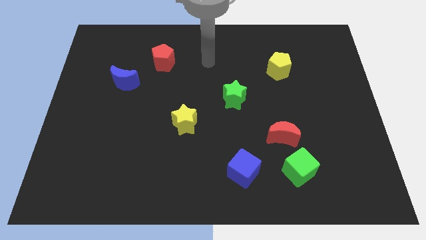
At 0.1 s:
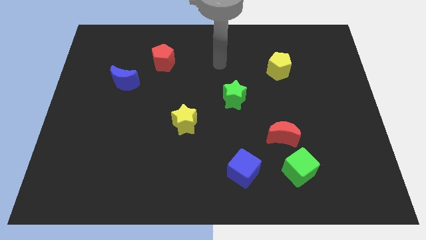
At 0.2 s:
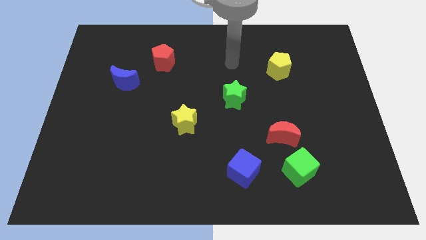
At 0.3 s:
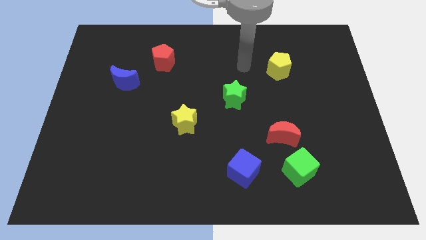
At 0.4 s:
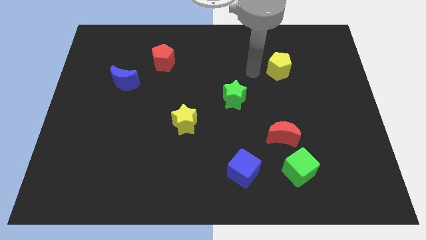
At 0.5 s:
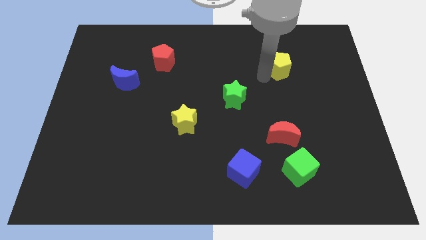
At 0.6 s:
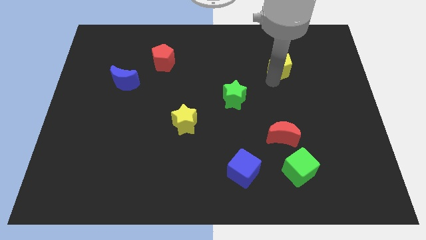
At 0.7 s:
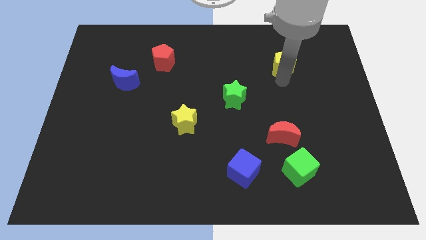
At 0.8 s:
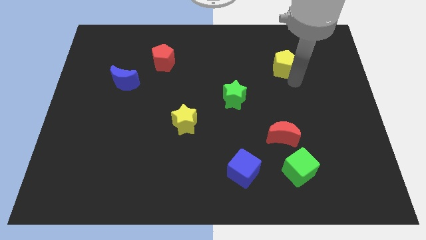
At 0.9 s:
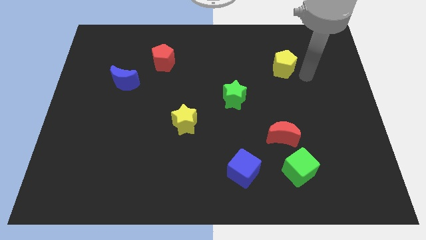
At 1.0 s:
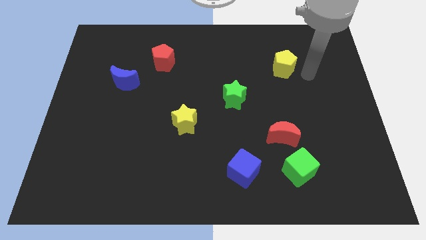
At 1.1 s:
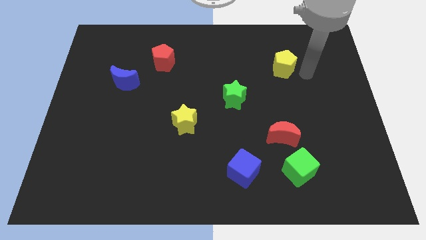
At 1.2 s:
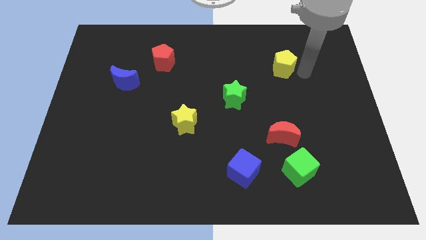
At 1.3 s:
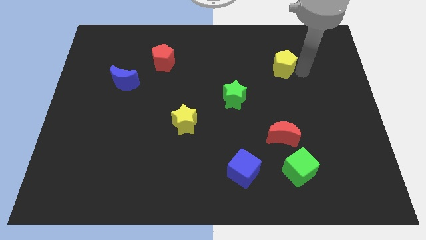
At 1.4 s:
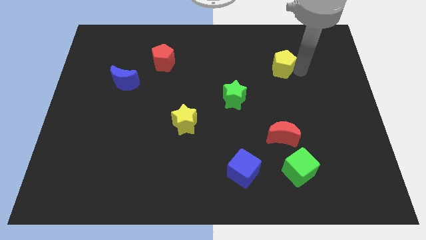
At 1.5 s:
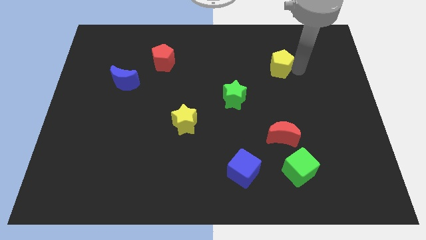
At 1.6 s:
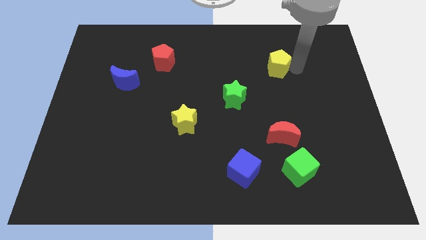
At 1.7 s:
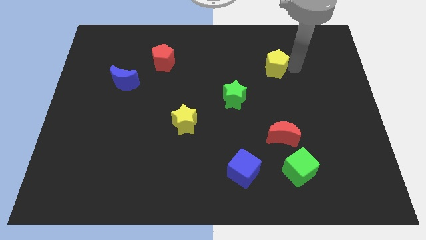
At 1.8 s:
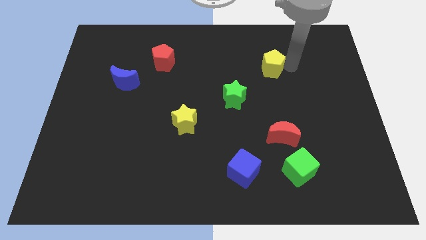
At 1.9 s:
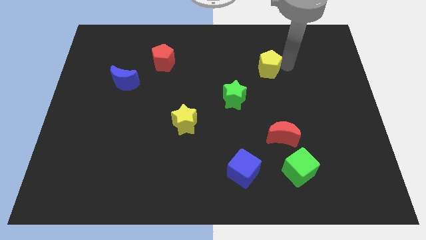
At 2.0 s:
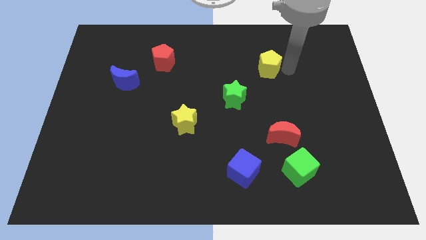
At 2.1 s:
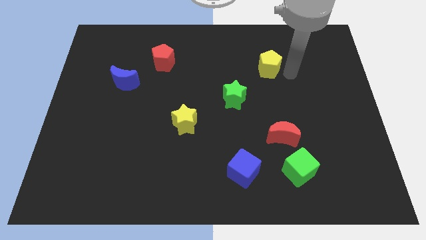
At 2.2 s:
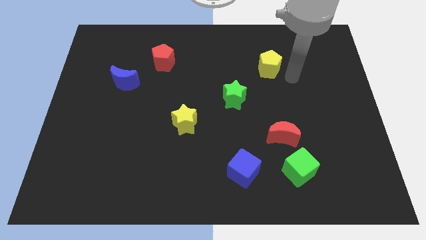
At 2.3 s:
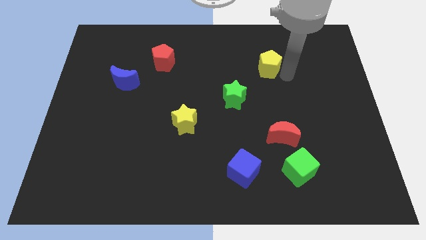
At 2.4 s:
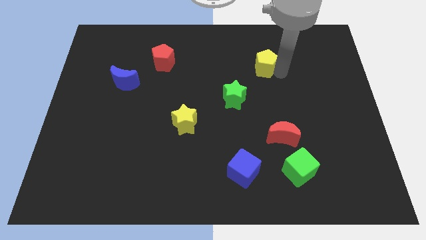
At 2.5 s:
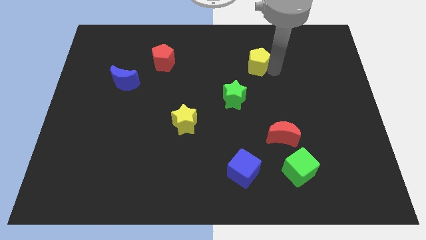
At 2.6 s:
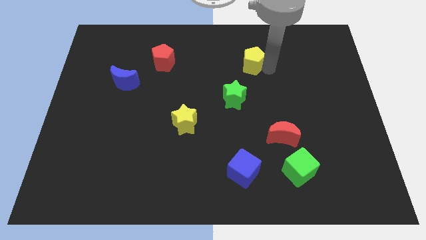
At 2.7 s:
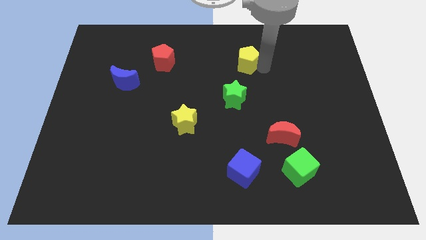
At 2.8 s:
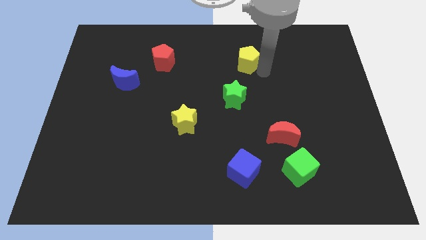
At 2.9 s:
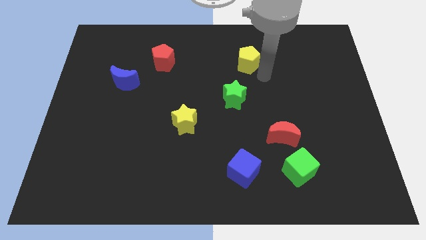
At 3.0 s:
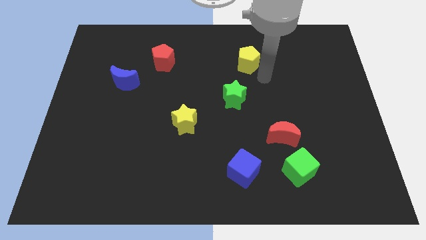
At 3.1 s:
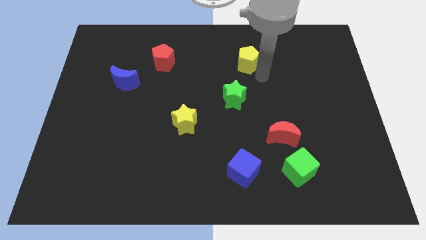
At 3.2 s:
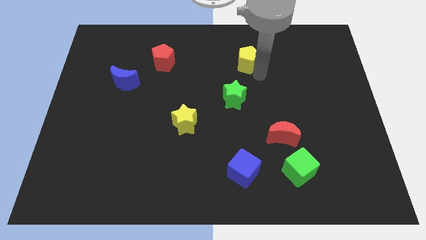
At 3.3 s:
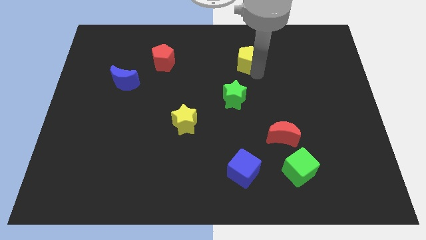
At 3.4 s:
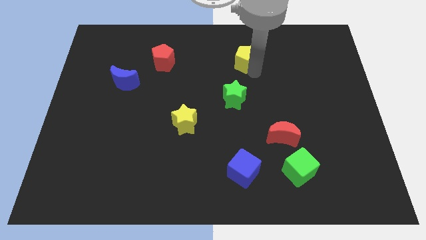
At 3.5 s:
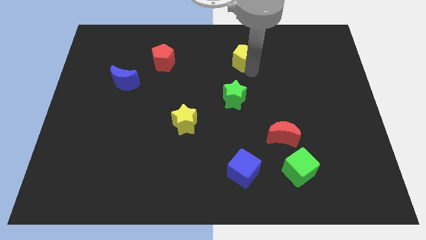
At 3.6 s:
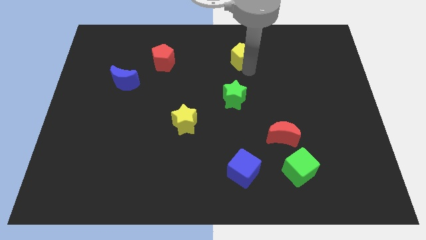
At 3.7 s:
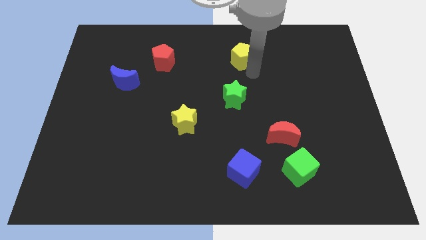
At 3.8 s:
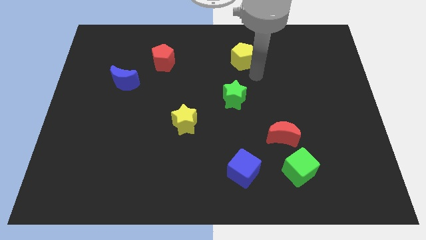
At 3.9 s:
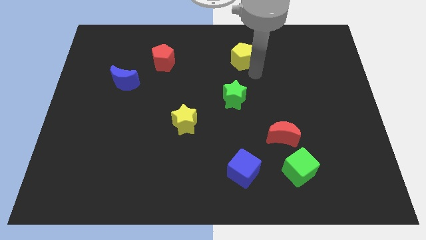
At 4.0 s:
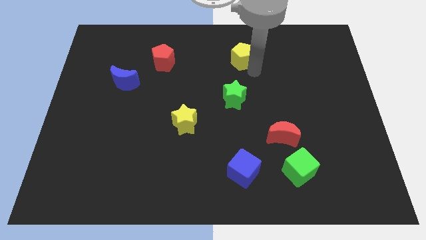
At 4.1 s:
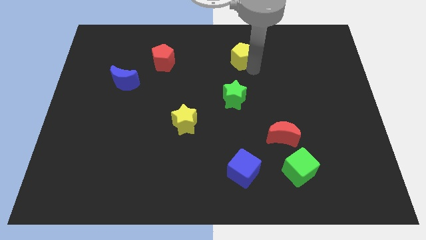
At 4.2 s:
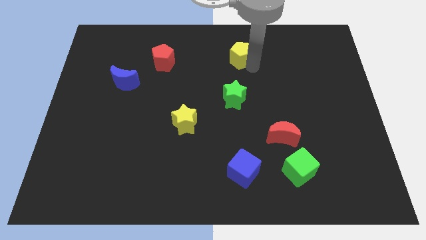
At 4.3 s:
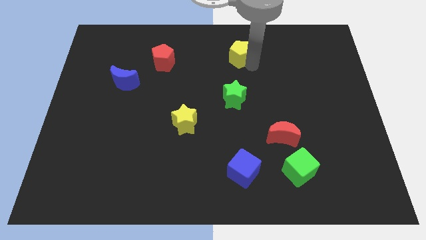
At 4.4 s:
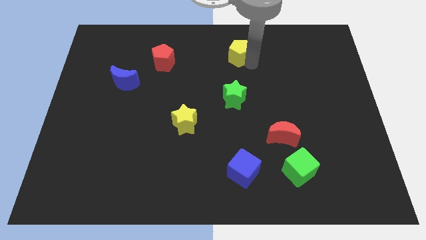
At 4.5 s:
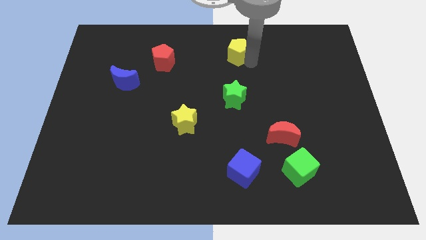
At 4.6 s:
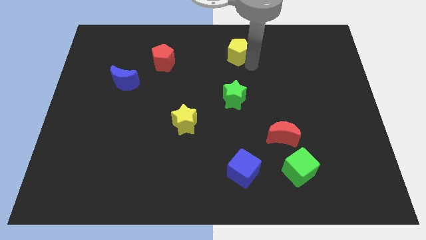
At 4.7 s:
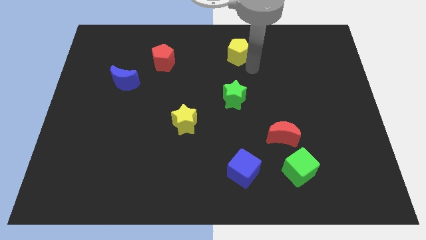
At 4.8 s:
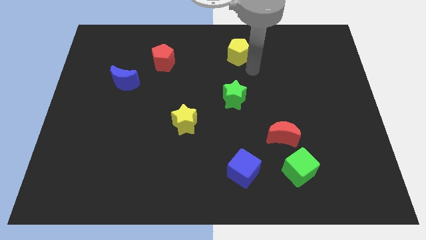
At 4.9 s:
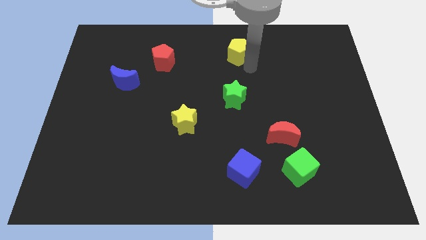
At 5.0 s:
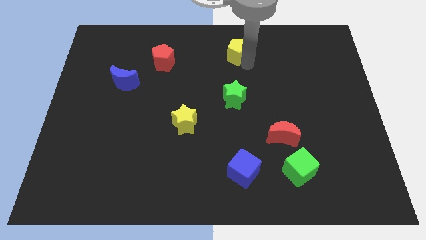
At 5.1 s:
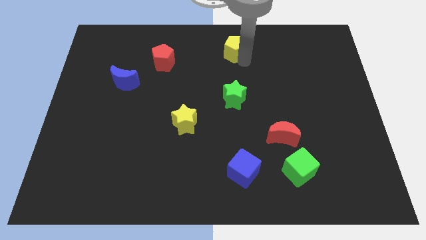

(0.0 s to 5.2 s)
put the yellow pentagon to the top side

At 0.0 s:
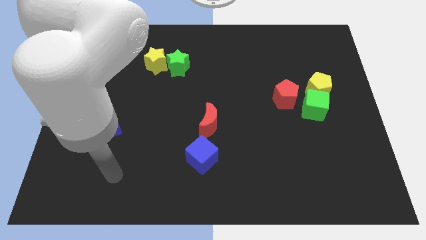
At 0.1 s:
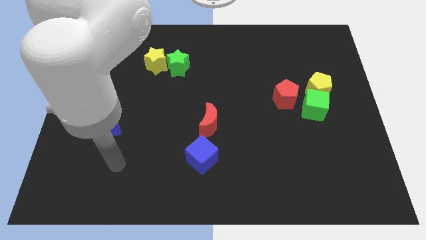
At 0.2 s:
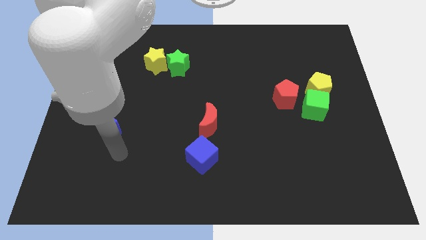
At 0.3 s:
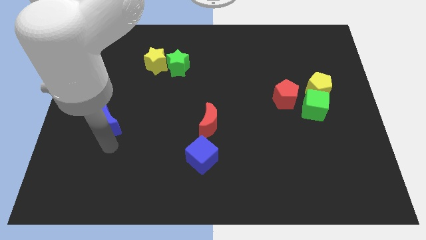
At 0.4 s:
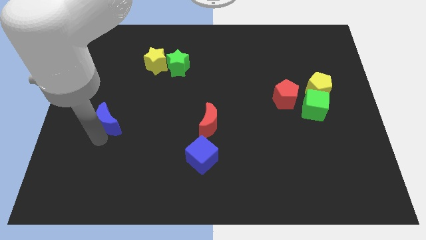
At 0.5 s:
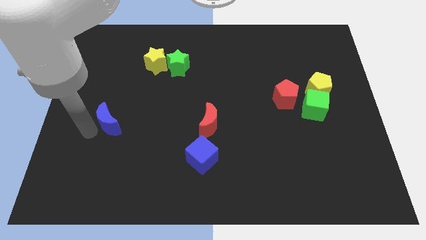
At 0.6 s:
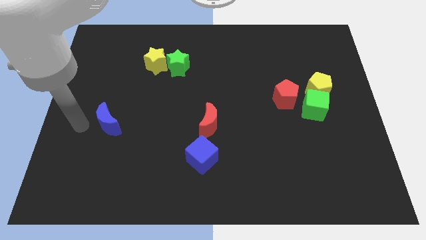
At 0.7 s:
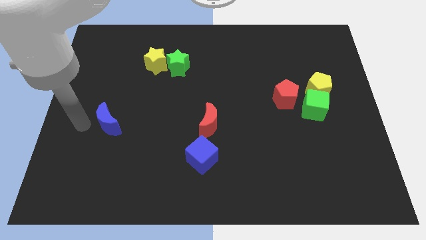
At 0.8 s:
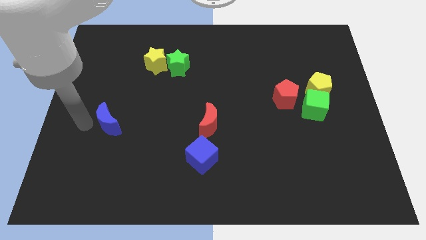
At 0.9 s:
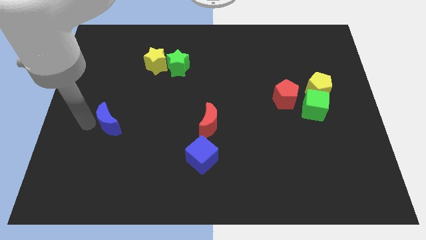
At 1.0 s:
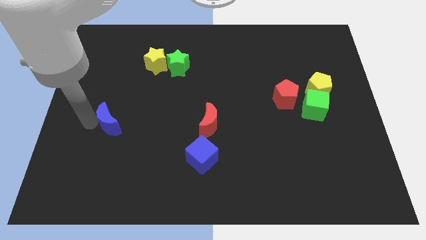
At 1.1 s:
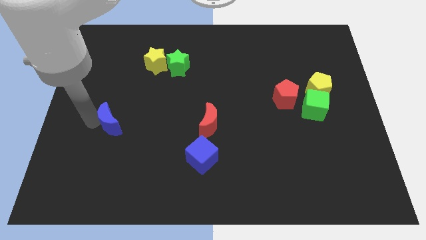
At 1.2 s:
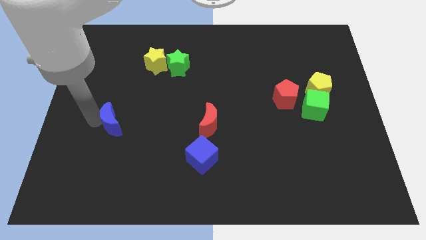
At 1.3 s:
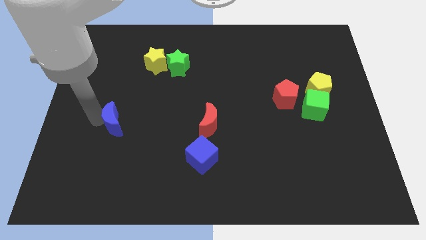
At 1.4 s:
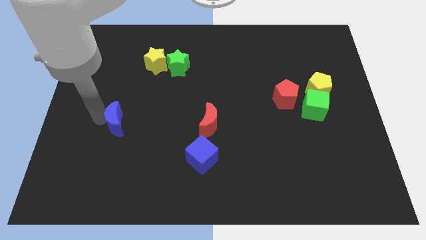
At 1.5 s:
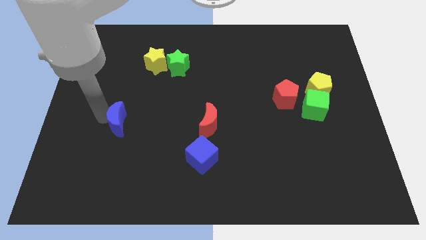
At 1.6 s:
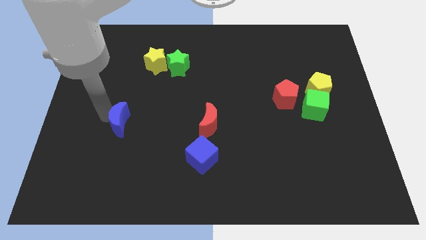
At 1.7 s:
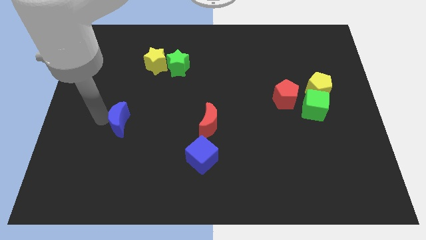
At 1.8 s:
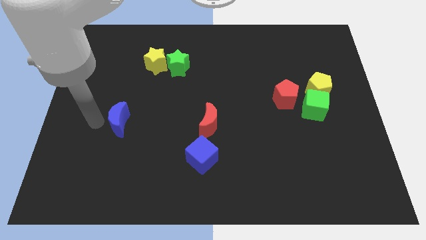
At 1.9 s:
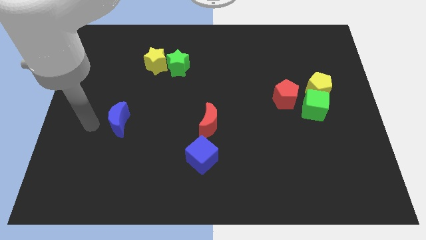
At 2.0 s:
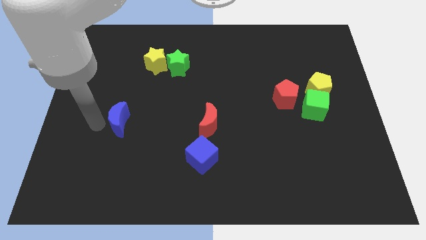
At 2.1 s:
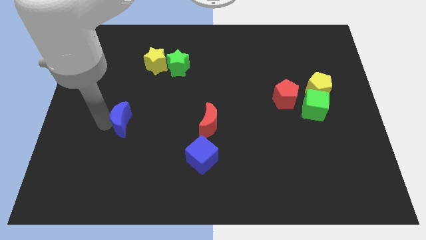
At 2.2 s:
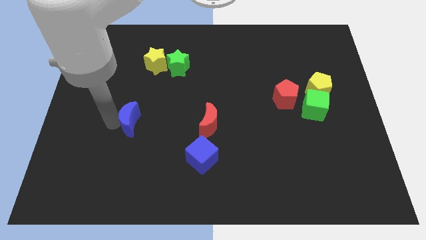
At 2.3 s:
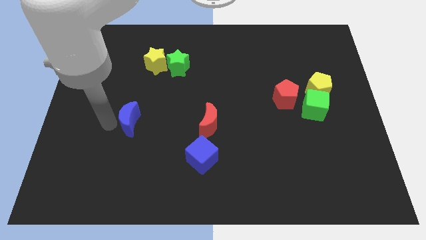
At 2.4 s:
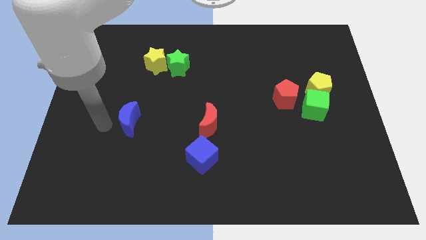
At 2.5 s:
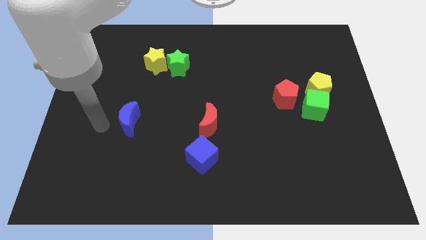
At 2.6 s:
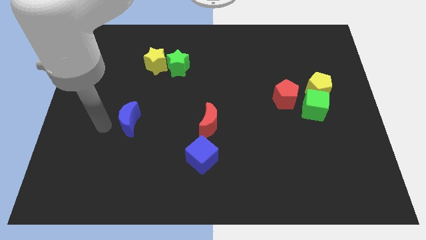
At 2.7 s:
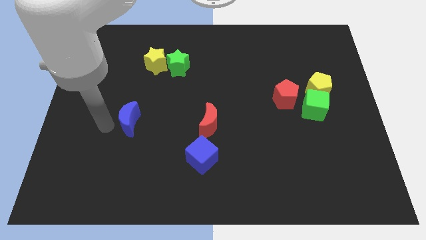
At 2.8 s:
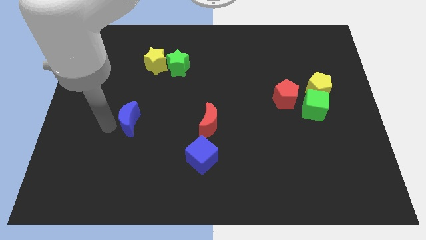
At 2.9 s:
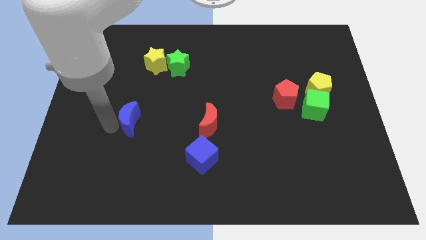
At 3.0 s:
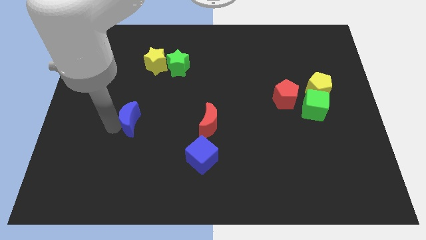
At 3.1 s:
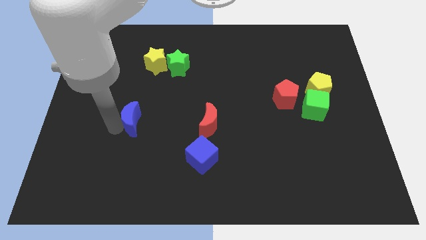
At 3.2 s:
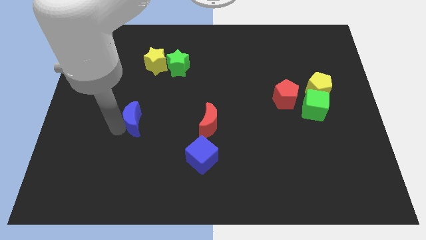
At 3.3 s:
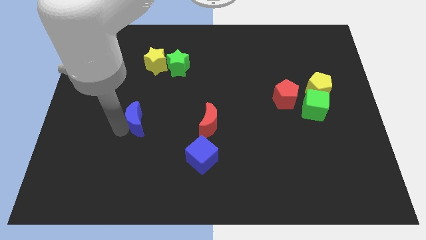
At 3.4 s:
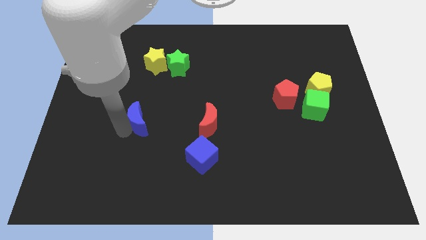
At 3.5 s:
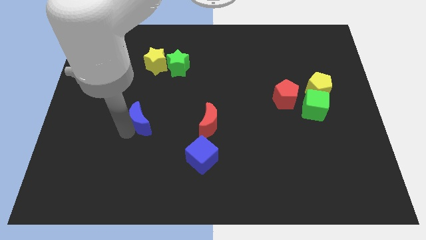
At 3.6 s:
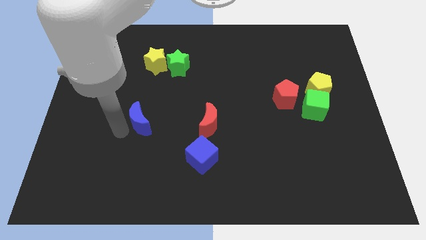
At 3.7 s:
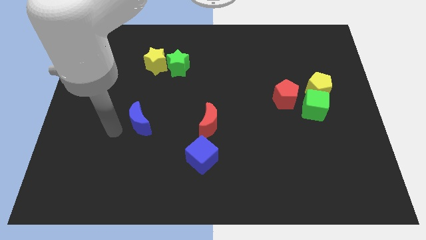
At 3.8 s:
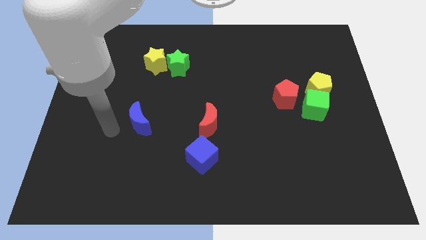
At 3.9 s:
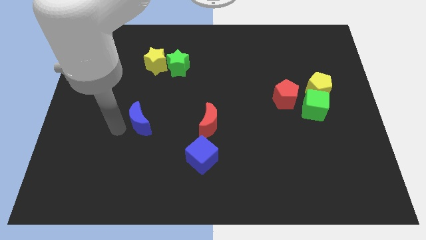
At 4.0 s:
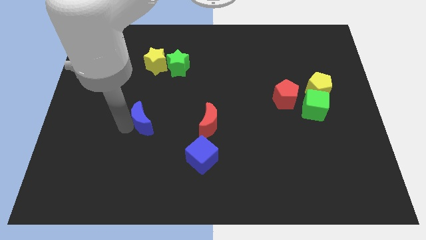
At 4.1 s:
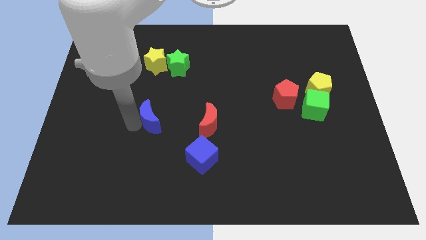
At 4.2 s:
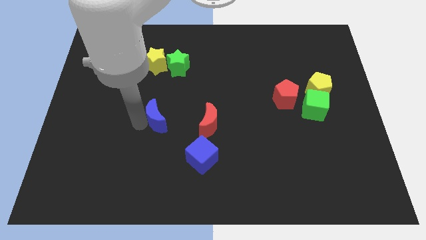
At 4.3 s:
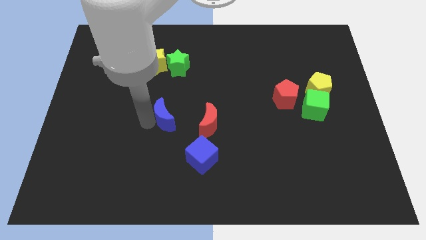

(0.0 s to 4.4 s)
push the blue moon to the center
